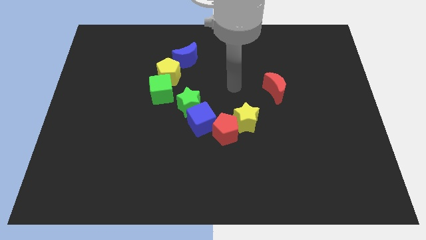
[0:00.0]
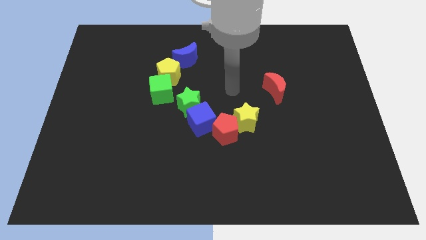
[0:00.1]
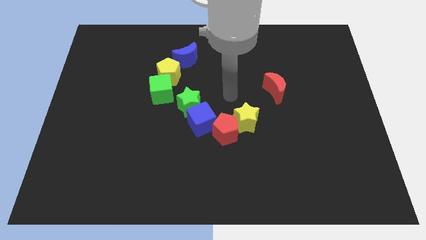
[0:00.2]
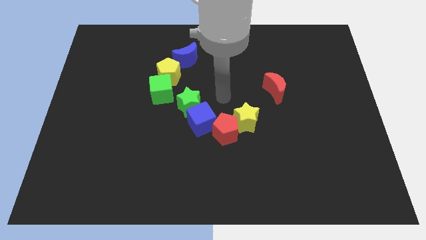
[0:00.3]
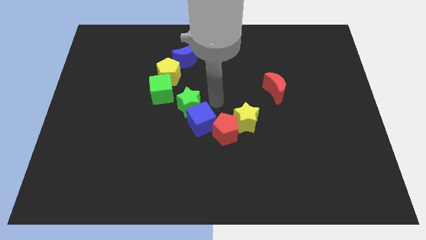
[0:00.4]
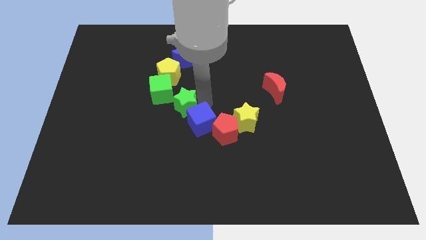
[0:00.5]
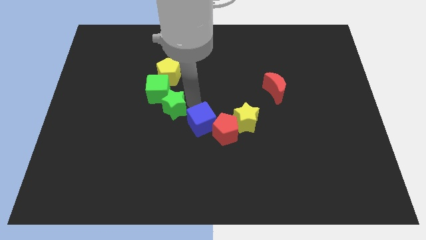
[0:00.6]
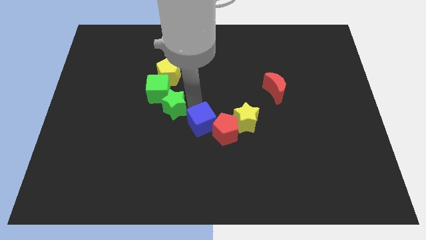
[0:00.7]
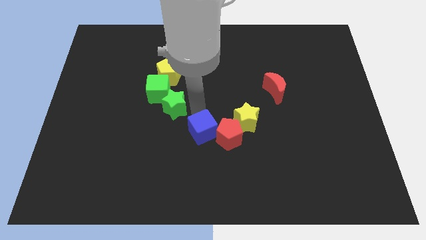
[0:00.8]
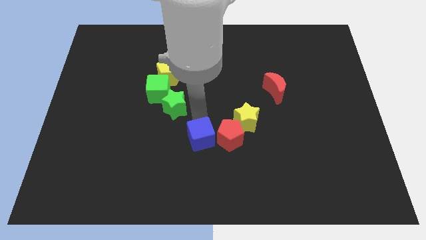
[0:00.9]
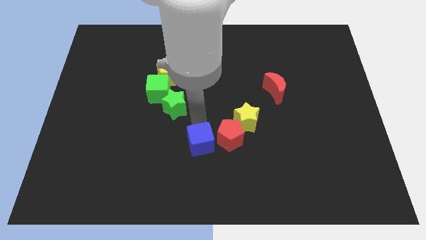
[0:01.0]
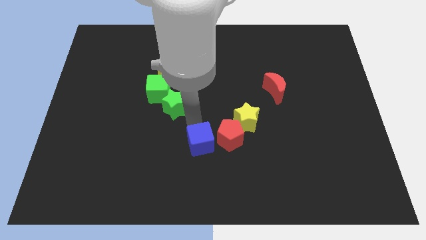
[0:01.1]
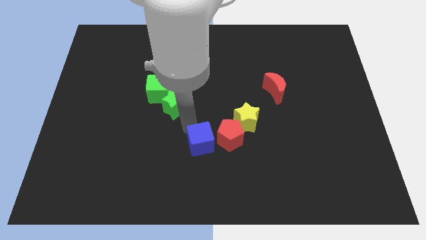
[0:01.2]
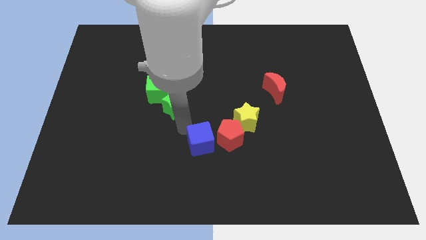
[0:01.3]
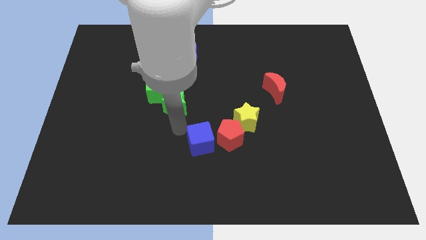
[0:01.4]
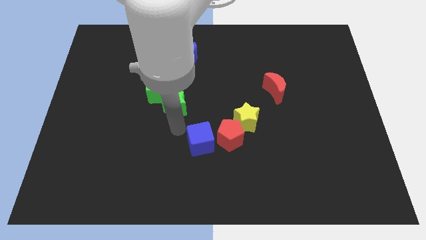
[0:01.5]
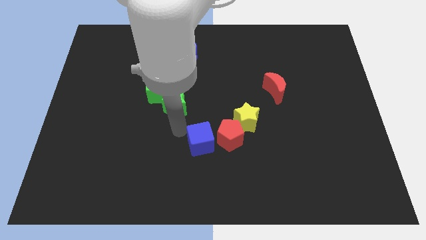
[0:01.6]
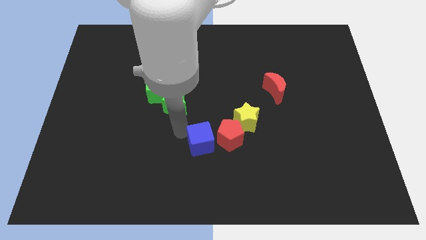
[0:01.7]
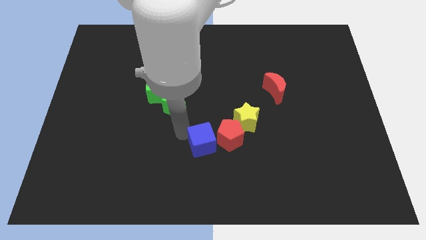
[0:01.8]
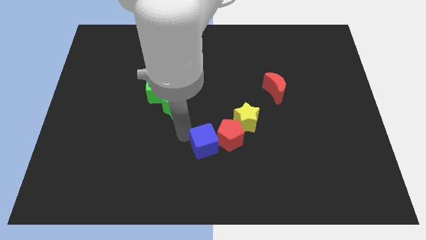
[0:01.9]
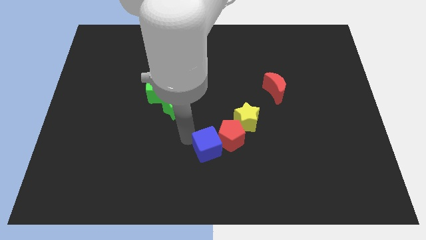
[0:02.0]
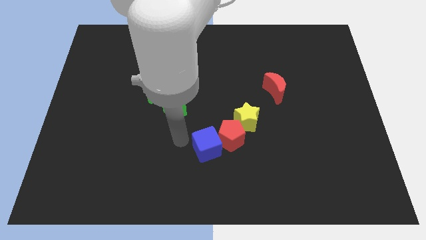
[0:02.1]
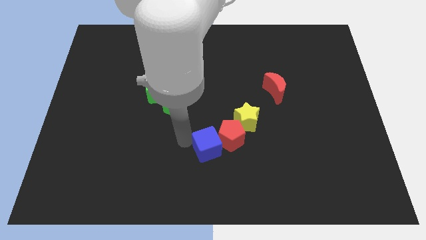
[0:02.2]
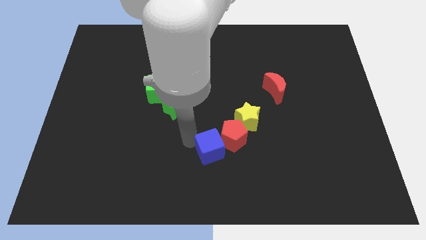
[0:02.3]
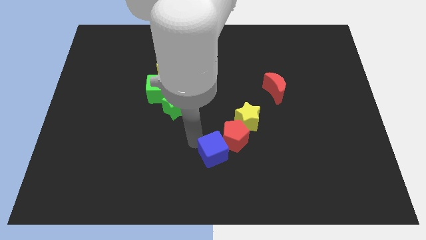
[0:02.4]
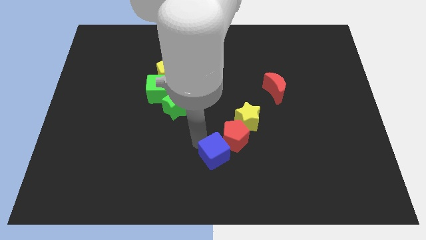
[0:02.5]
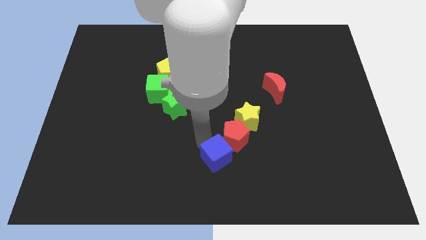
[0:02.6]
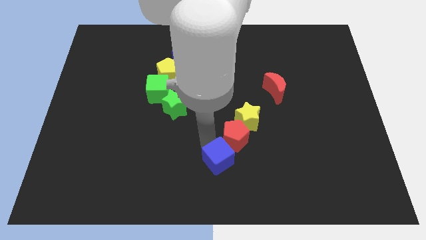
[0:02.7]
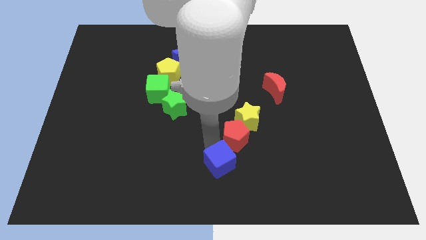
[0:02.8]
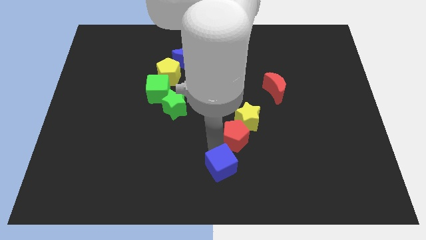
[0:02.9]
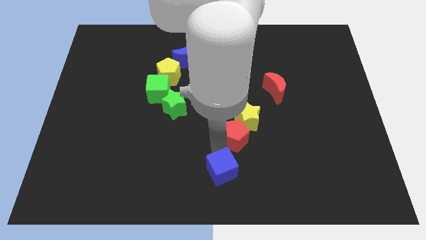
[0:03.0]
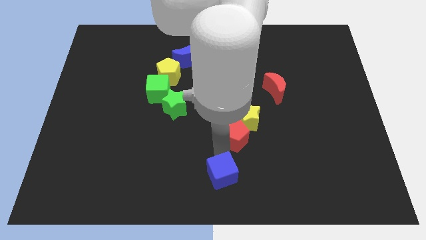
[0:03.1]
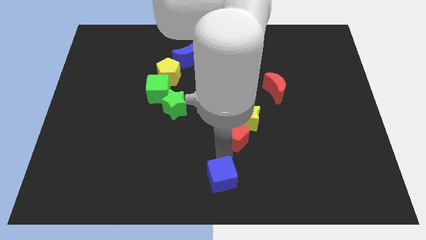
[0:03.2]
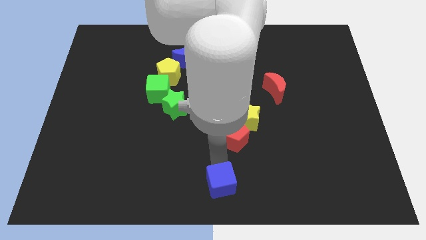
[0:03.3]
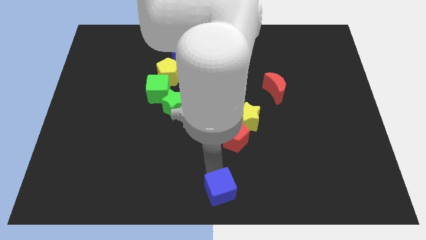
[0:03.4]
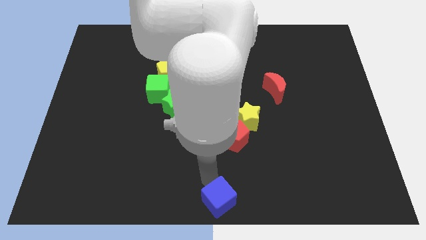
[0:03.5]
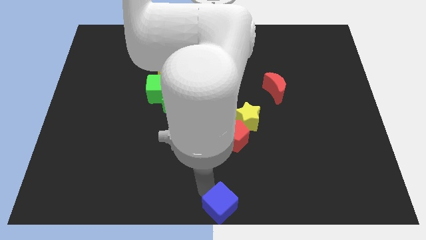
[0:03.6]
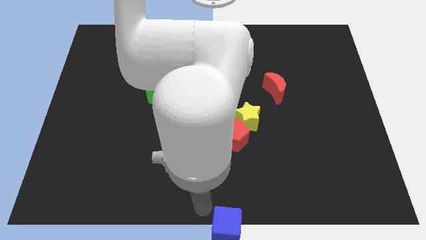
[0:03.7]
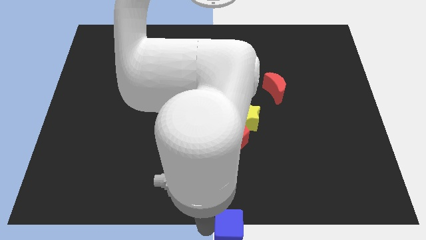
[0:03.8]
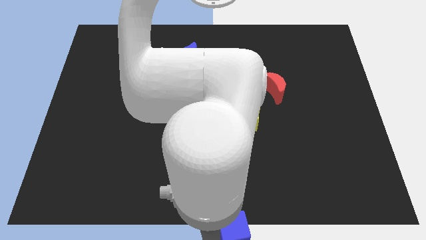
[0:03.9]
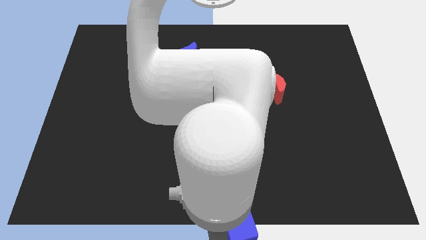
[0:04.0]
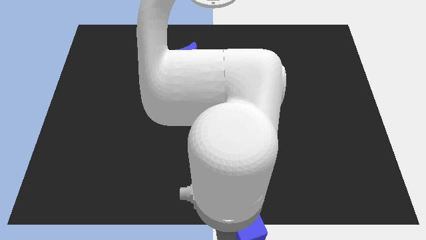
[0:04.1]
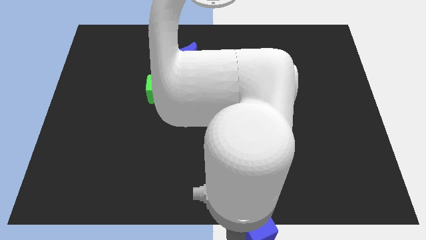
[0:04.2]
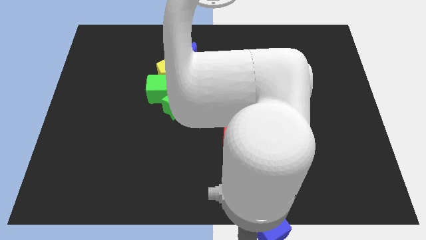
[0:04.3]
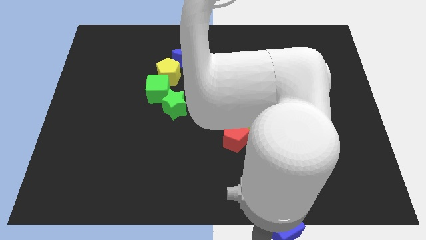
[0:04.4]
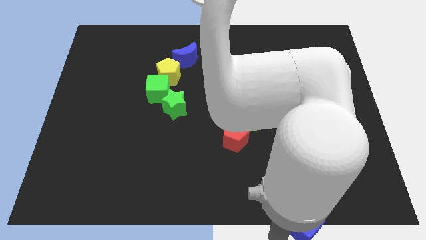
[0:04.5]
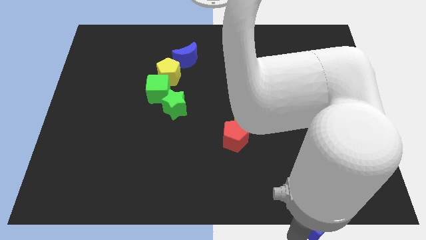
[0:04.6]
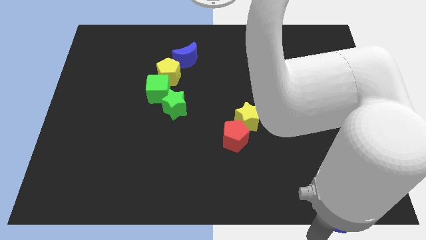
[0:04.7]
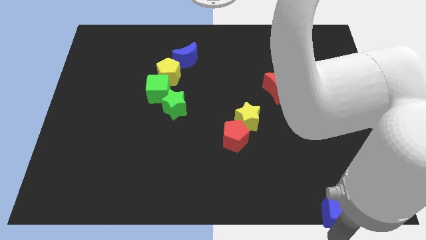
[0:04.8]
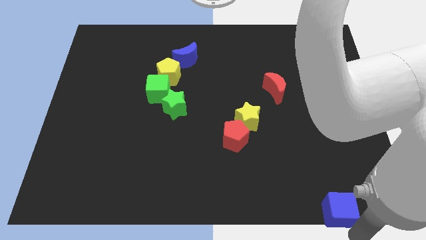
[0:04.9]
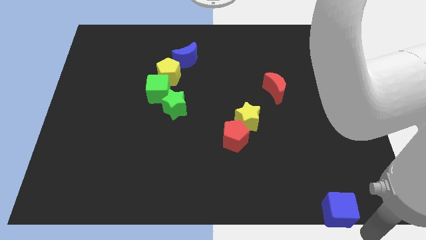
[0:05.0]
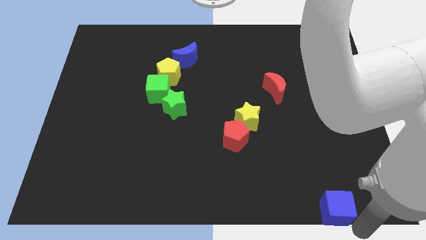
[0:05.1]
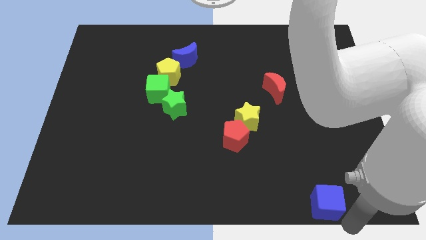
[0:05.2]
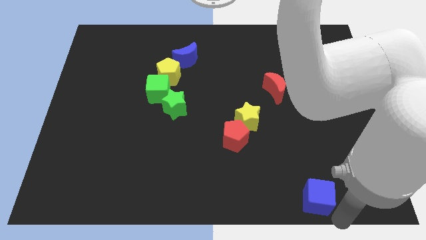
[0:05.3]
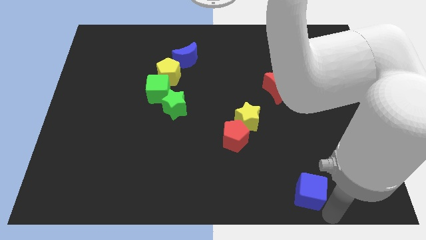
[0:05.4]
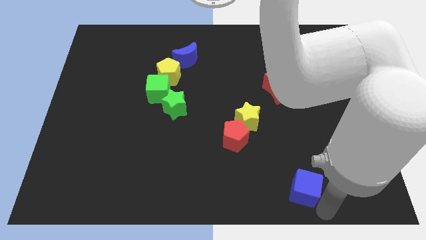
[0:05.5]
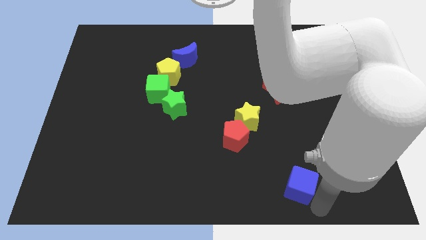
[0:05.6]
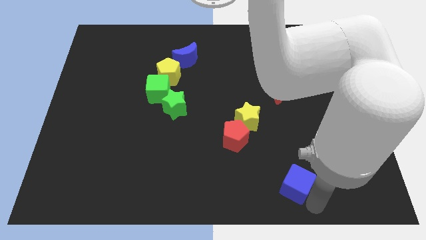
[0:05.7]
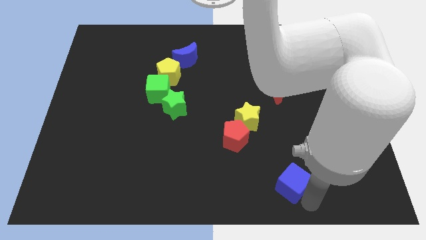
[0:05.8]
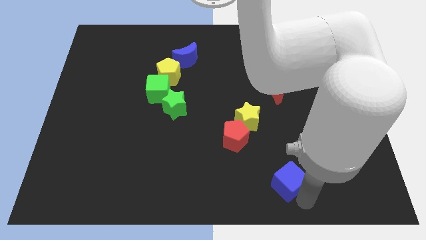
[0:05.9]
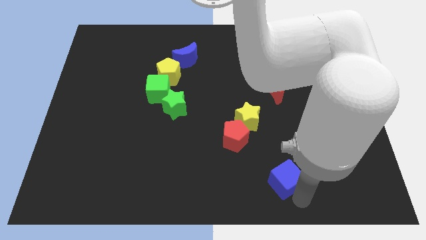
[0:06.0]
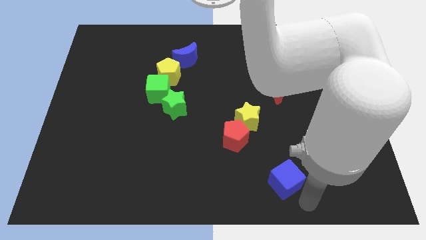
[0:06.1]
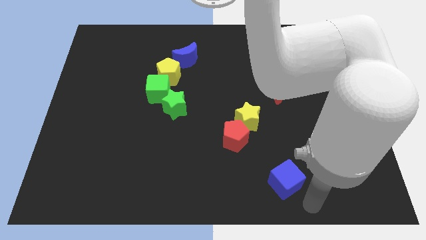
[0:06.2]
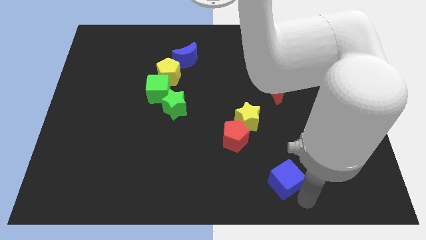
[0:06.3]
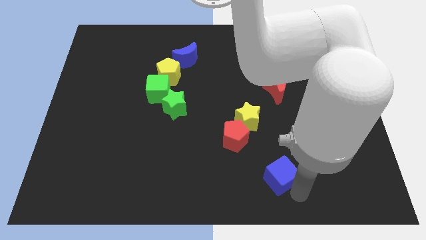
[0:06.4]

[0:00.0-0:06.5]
move the blue cube to the bottom right side of the red pentagon

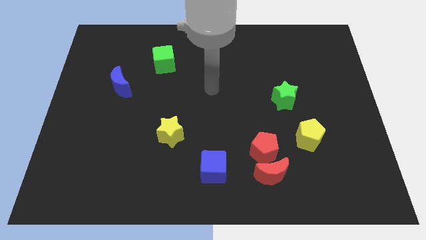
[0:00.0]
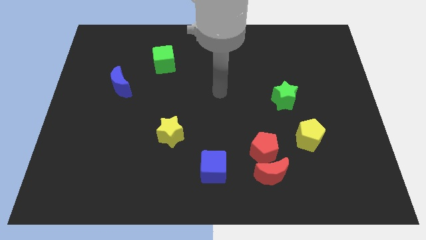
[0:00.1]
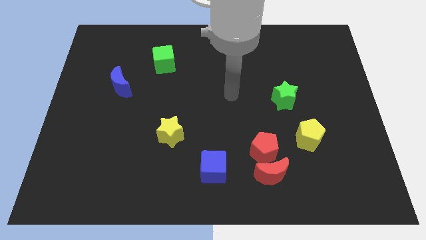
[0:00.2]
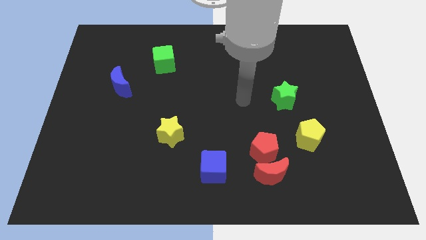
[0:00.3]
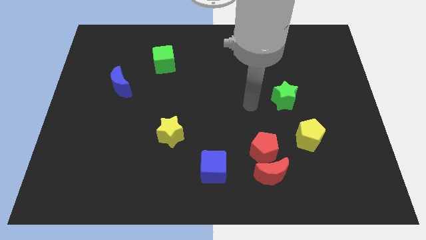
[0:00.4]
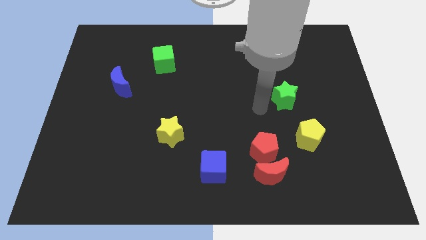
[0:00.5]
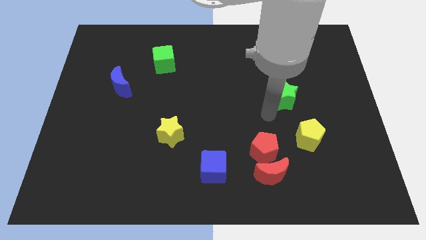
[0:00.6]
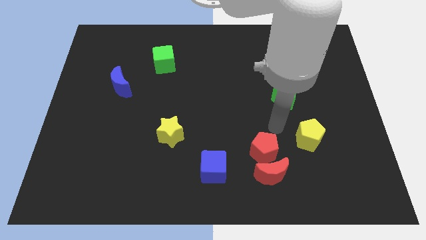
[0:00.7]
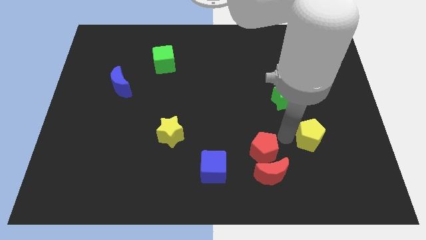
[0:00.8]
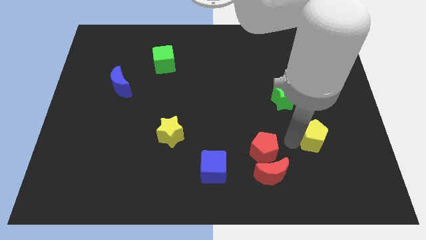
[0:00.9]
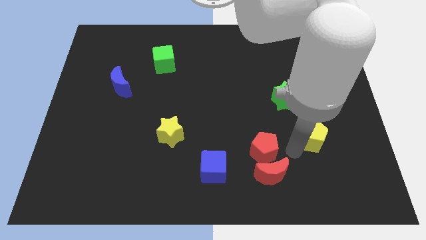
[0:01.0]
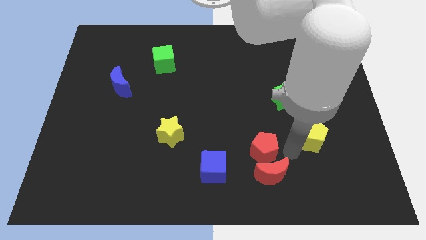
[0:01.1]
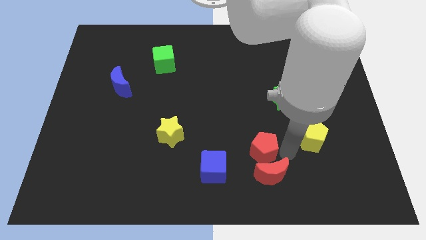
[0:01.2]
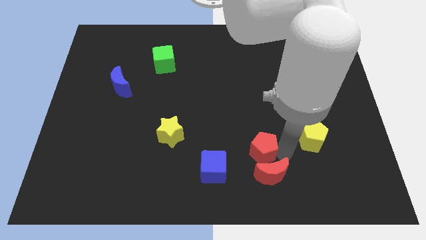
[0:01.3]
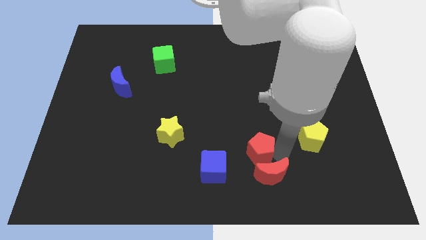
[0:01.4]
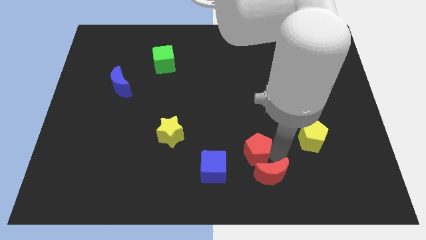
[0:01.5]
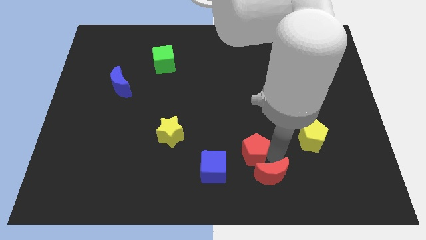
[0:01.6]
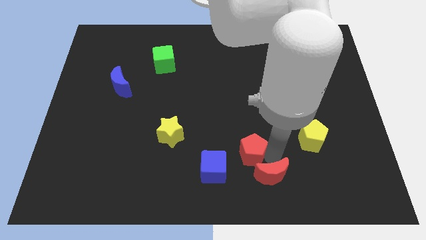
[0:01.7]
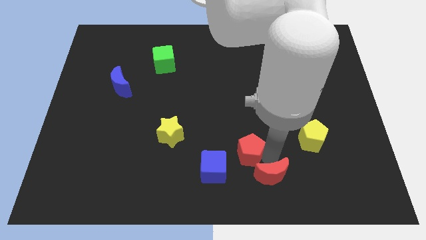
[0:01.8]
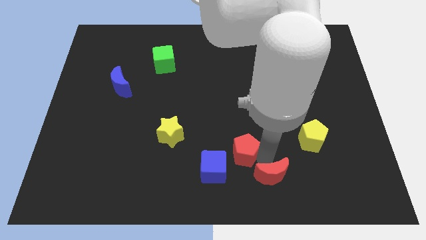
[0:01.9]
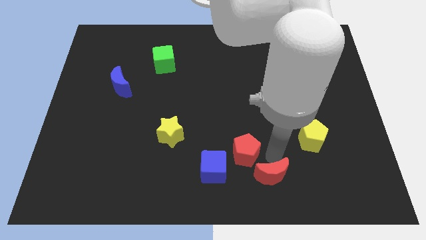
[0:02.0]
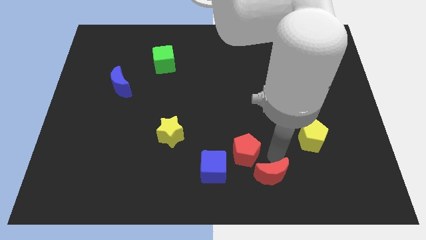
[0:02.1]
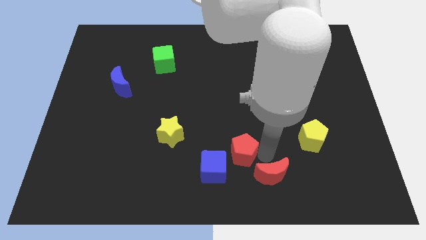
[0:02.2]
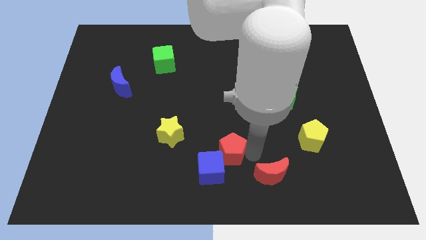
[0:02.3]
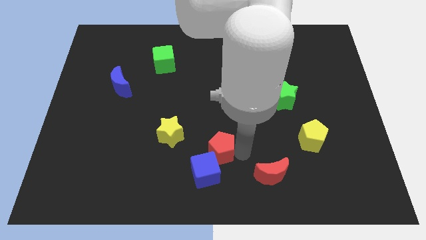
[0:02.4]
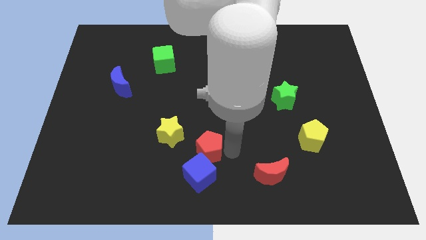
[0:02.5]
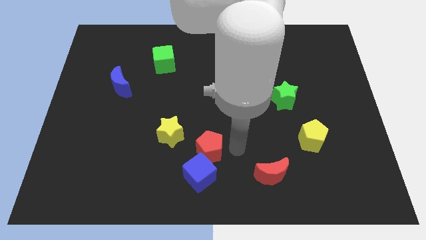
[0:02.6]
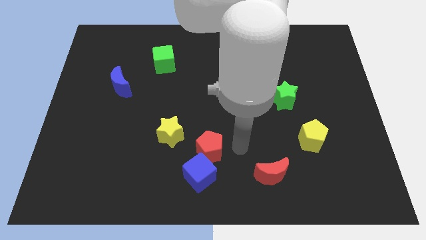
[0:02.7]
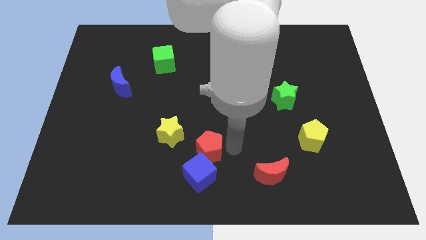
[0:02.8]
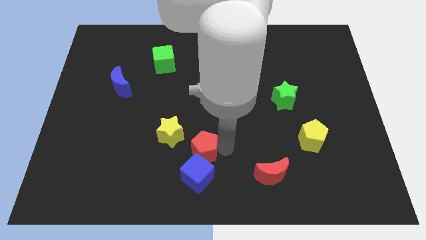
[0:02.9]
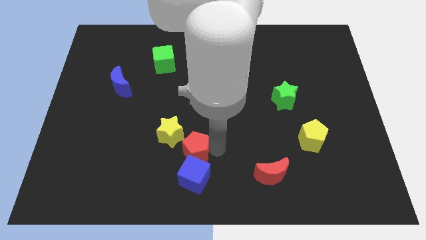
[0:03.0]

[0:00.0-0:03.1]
put the red pentagon to the top left of the blue cube
